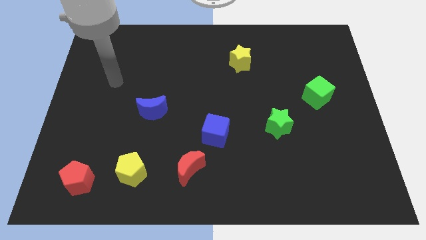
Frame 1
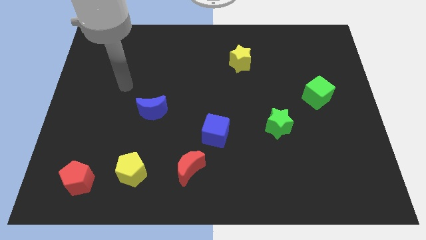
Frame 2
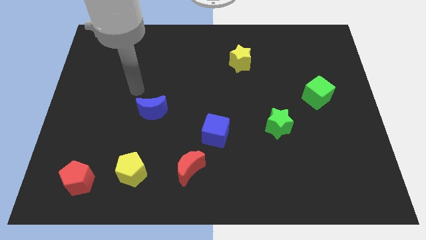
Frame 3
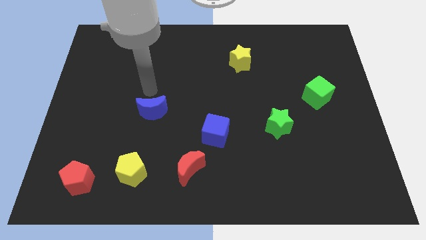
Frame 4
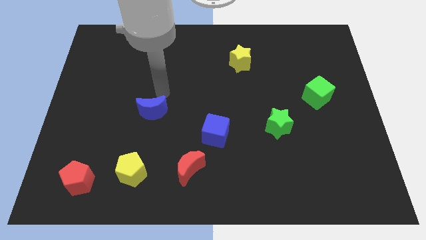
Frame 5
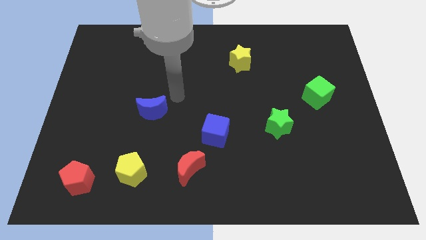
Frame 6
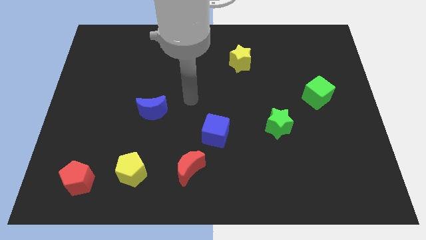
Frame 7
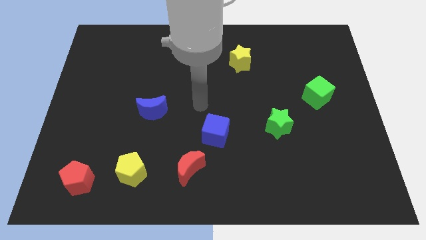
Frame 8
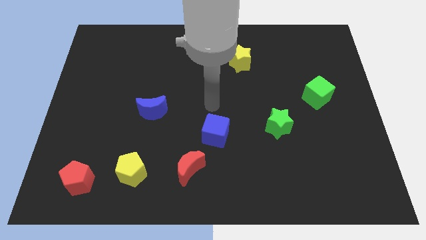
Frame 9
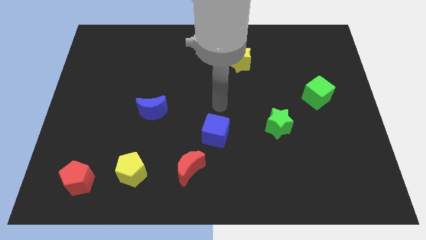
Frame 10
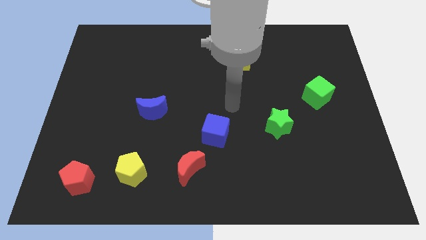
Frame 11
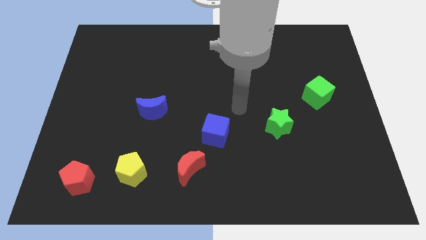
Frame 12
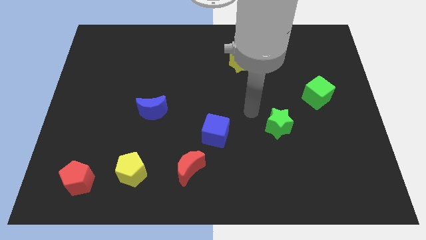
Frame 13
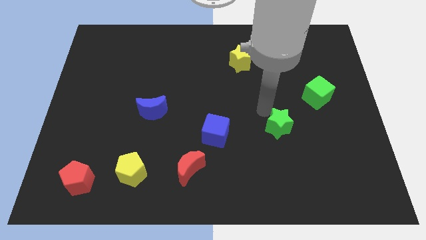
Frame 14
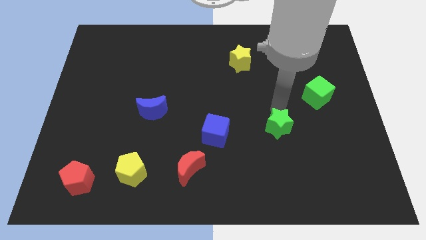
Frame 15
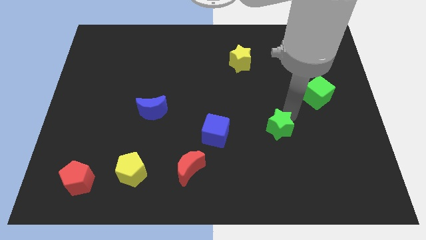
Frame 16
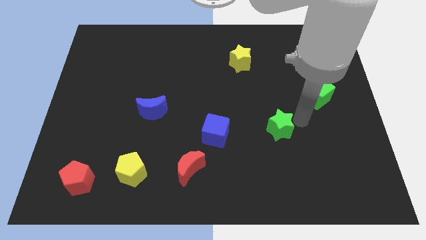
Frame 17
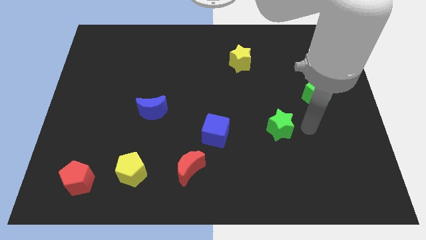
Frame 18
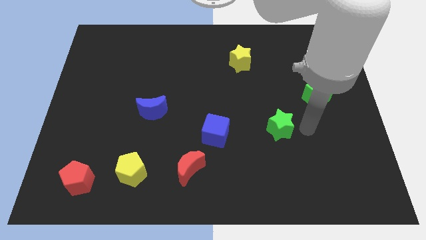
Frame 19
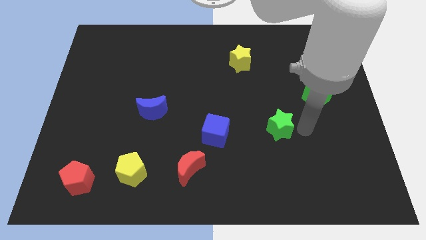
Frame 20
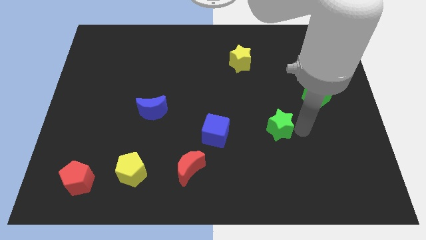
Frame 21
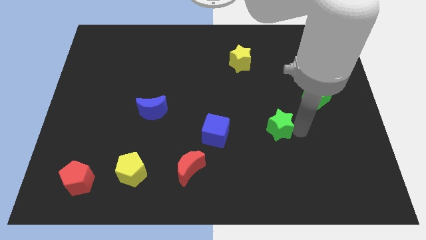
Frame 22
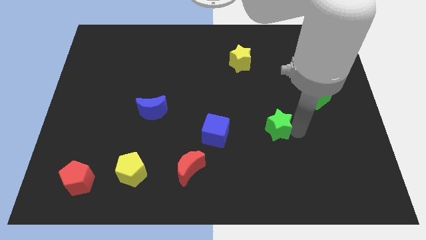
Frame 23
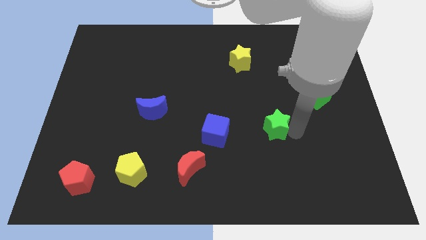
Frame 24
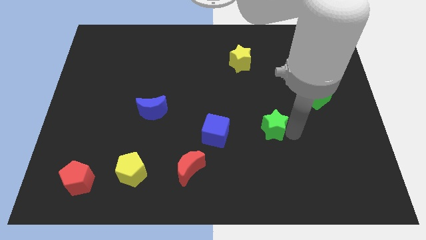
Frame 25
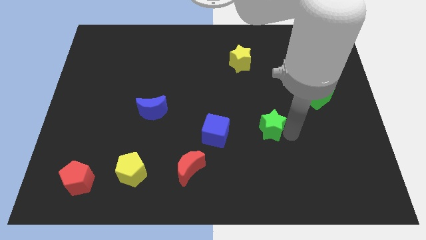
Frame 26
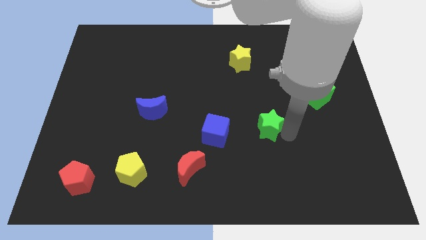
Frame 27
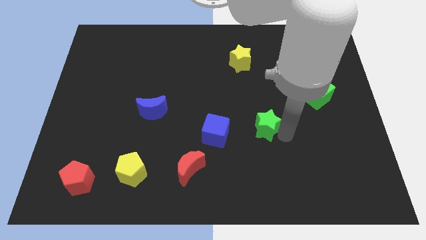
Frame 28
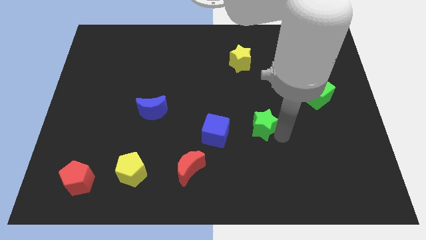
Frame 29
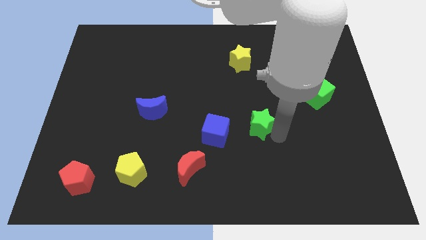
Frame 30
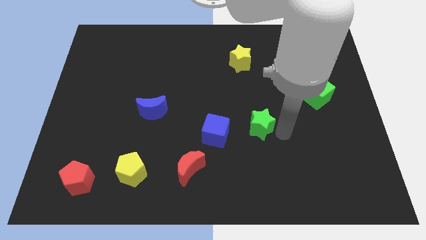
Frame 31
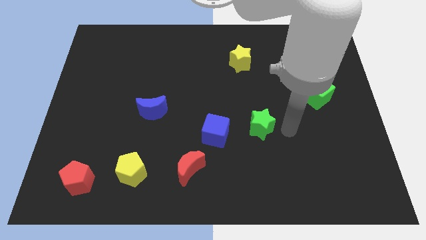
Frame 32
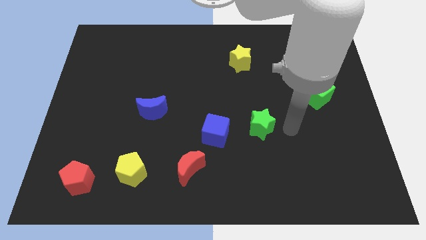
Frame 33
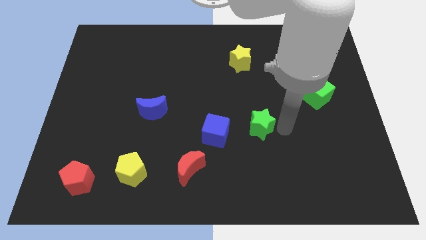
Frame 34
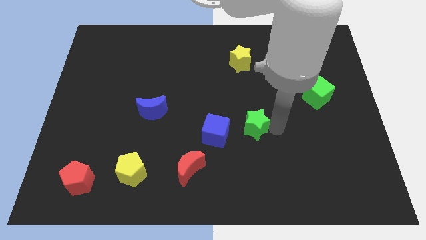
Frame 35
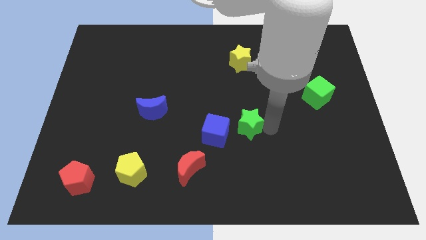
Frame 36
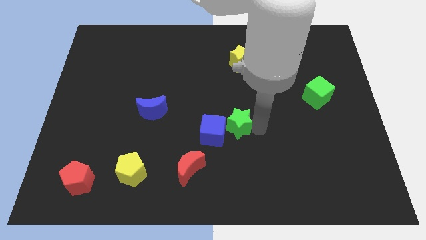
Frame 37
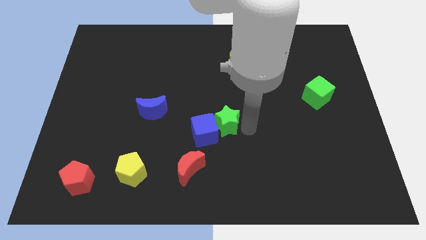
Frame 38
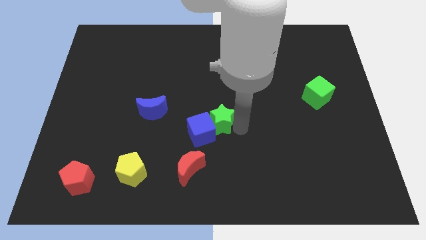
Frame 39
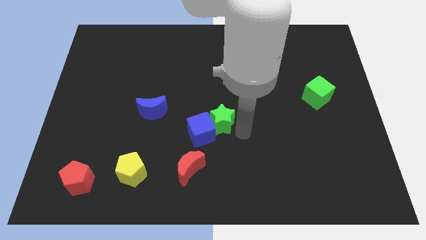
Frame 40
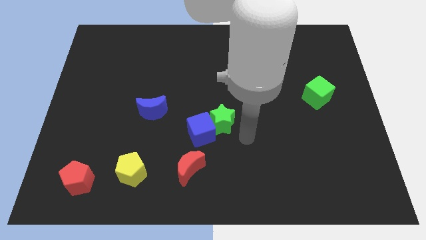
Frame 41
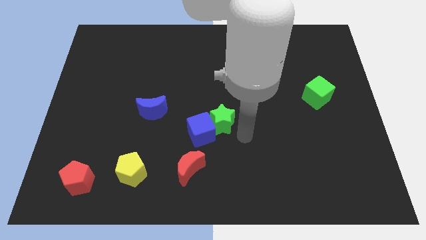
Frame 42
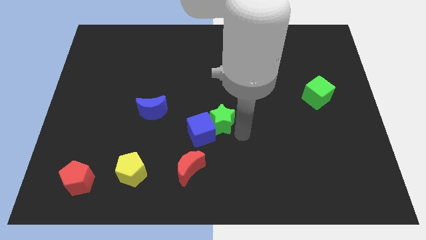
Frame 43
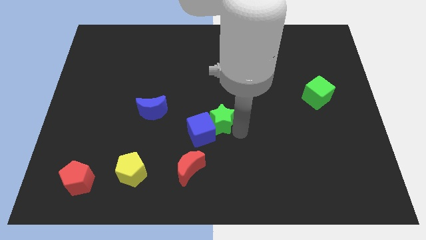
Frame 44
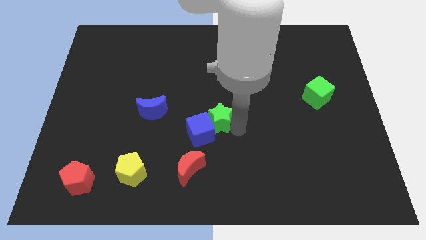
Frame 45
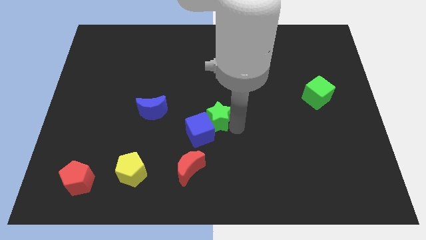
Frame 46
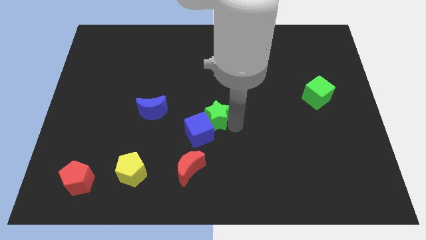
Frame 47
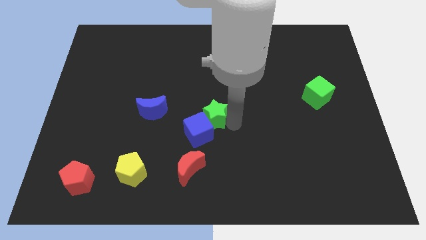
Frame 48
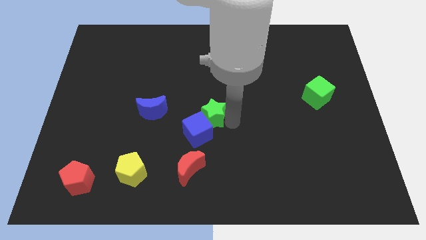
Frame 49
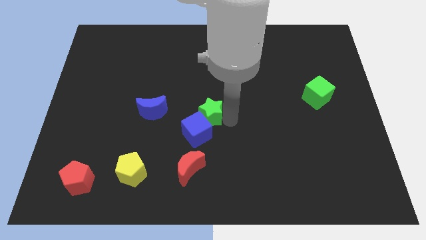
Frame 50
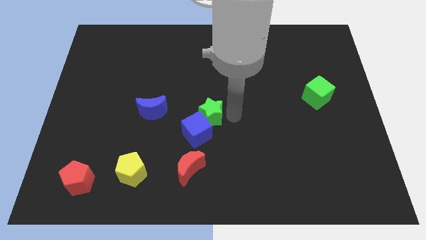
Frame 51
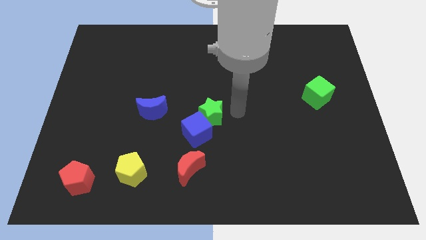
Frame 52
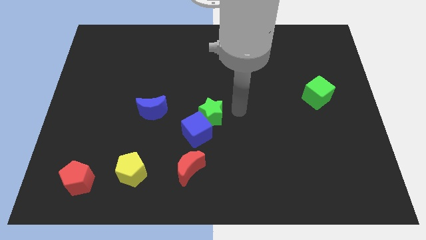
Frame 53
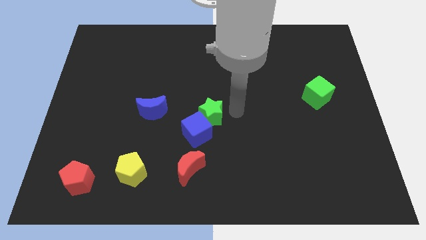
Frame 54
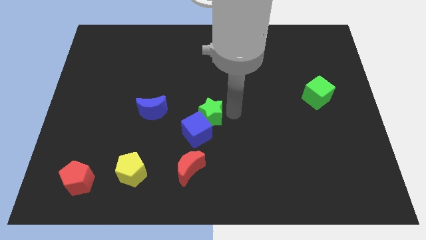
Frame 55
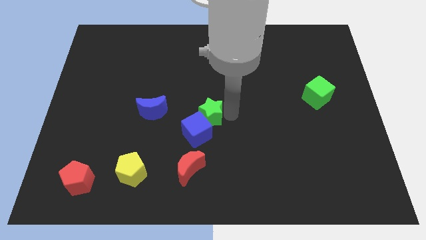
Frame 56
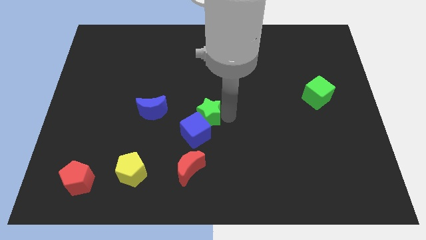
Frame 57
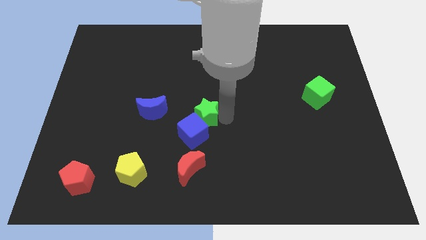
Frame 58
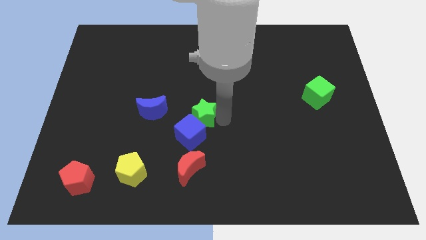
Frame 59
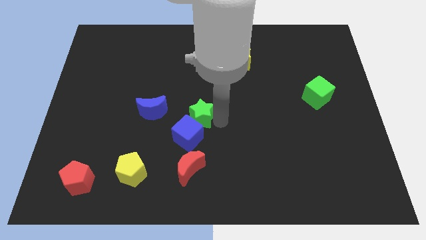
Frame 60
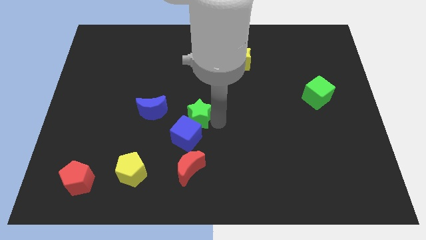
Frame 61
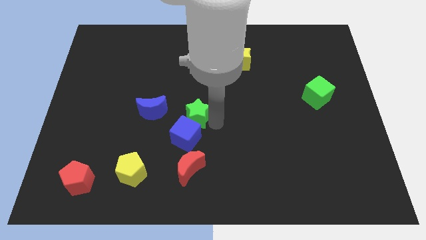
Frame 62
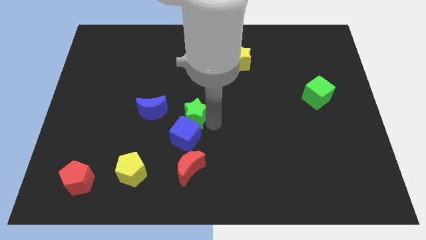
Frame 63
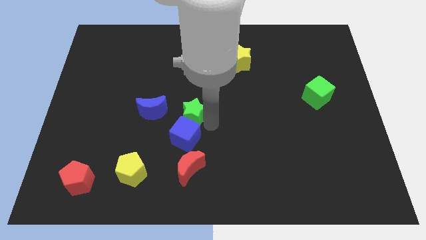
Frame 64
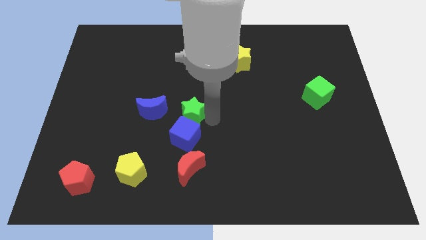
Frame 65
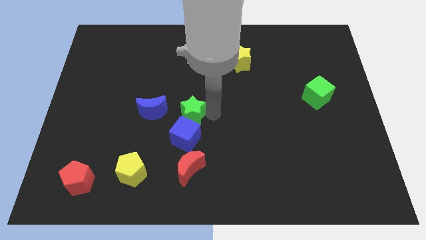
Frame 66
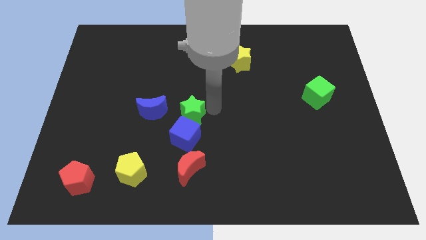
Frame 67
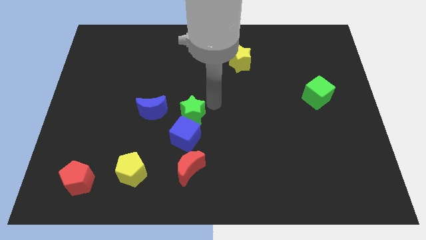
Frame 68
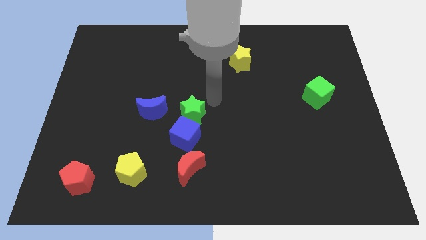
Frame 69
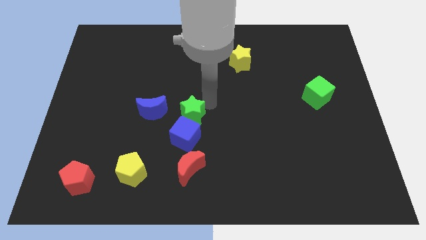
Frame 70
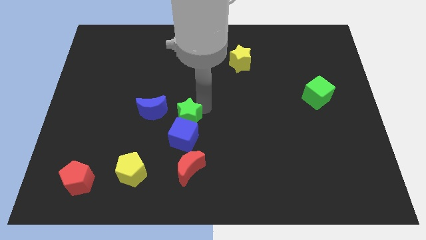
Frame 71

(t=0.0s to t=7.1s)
push the green star to the left

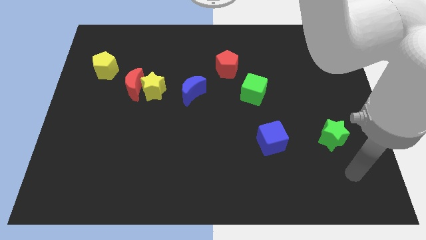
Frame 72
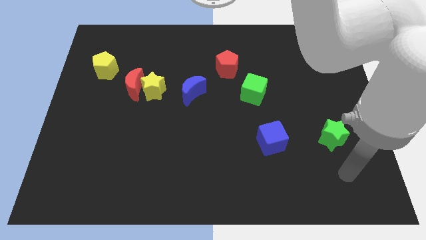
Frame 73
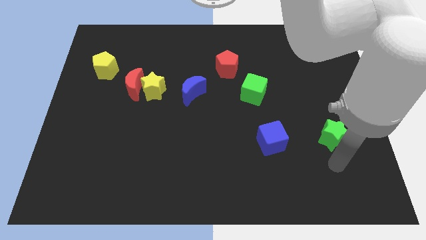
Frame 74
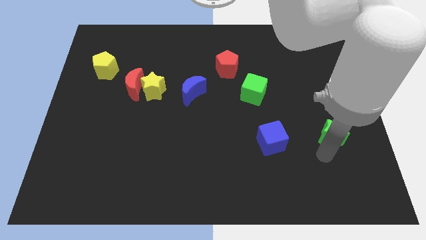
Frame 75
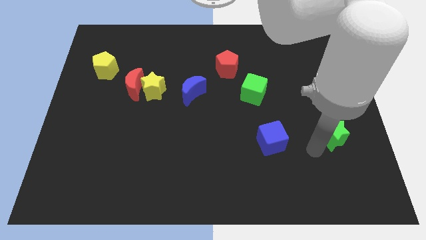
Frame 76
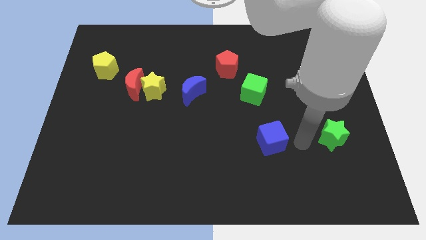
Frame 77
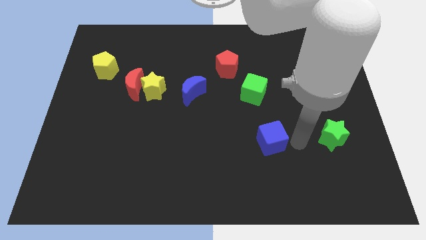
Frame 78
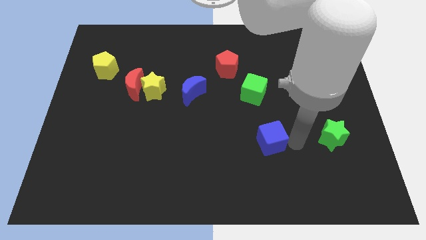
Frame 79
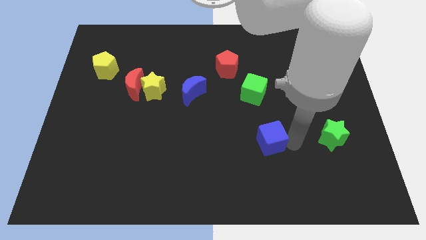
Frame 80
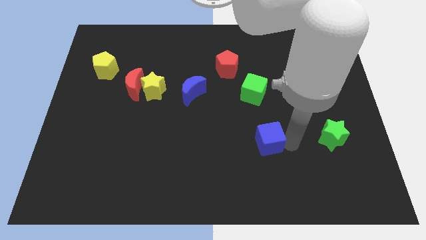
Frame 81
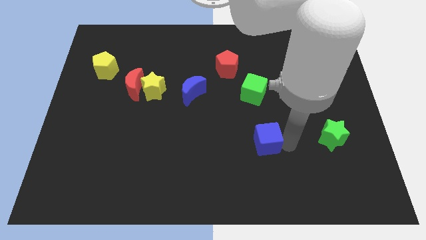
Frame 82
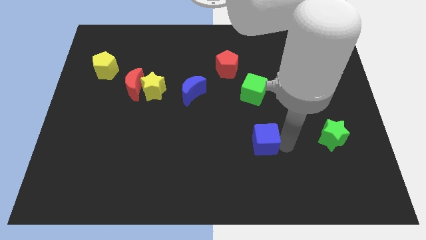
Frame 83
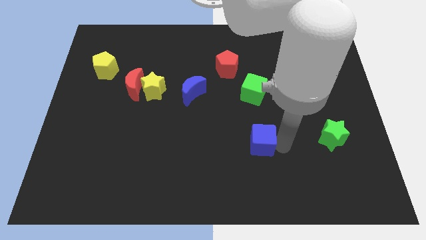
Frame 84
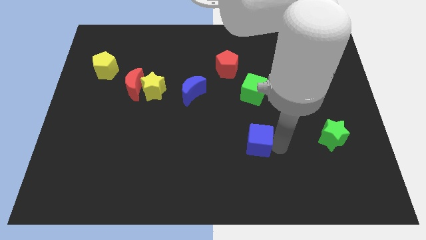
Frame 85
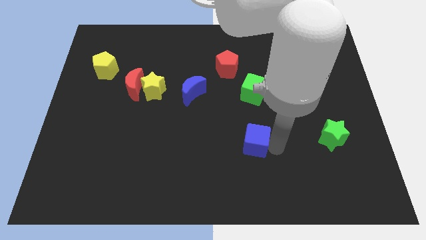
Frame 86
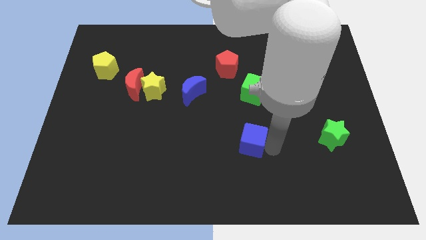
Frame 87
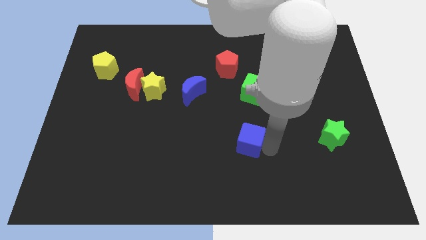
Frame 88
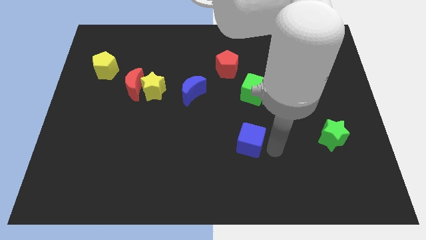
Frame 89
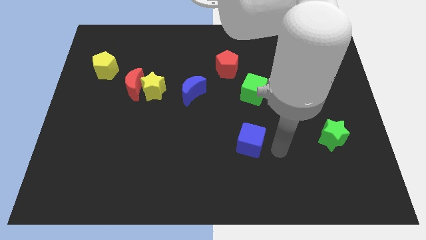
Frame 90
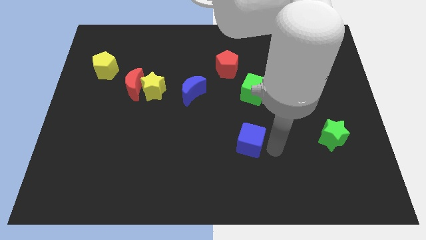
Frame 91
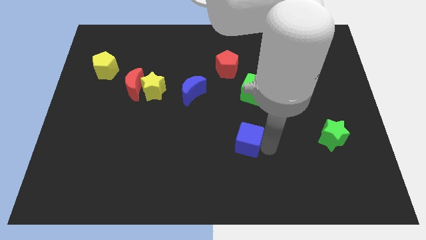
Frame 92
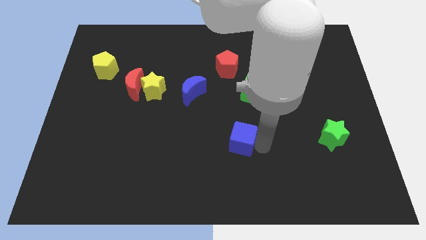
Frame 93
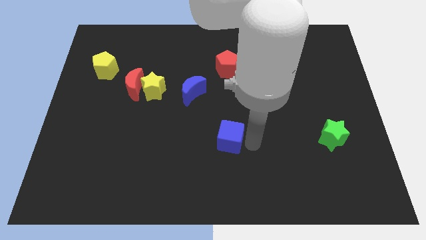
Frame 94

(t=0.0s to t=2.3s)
slightly push the blue cube left
